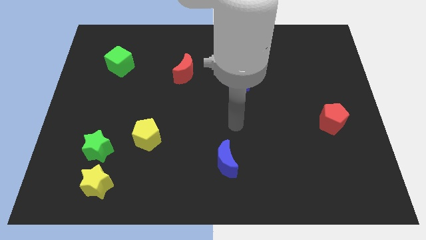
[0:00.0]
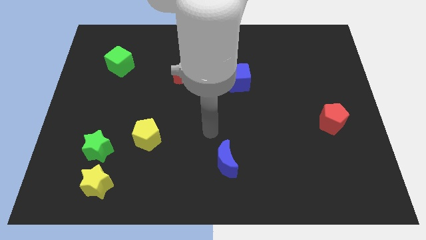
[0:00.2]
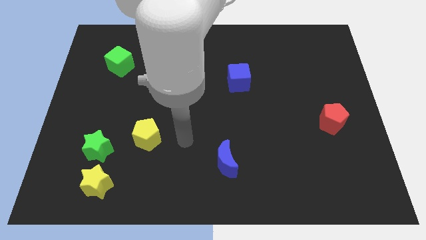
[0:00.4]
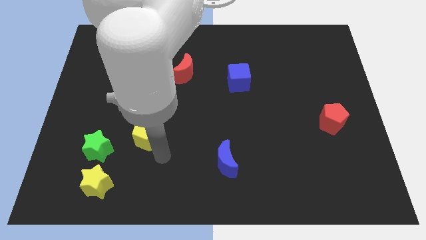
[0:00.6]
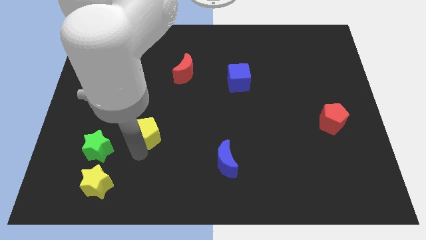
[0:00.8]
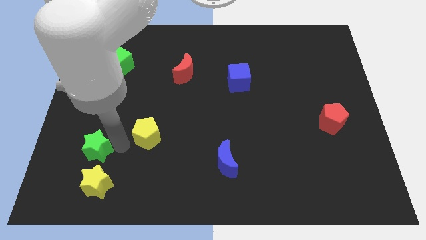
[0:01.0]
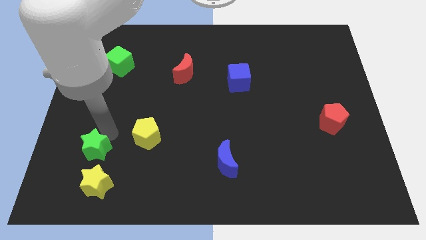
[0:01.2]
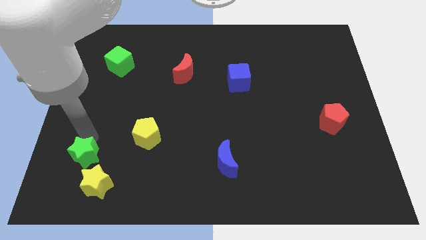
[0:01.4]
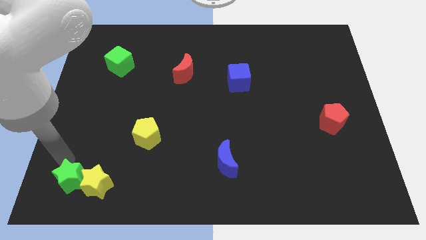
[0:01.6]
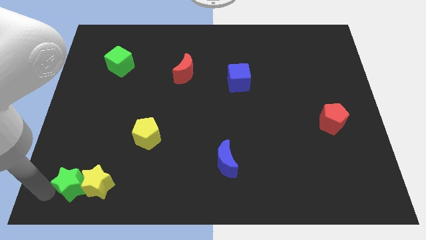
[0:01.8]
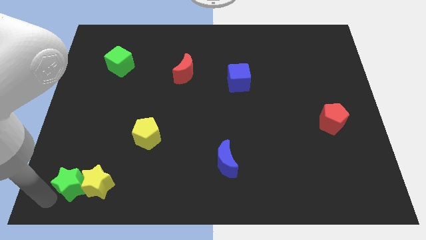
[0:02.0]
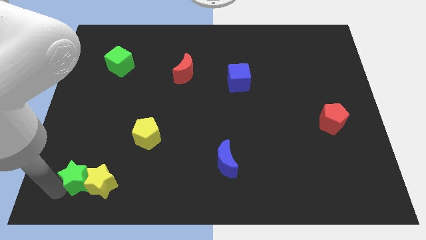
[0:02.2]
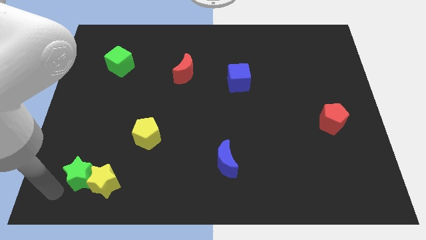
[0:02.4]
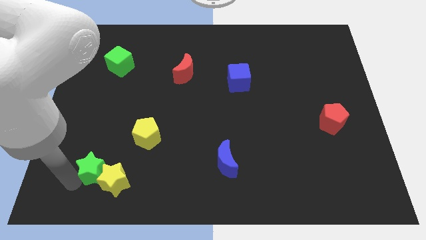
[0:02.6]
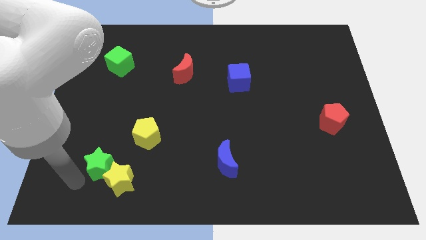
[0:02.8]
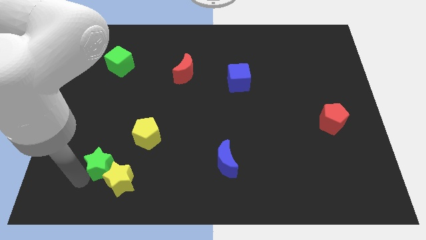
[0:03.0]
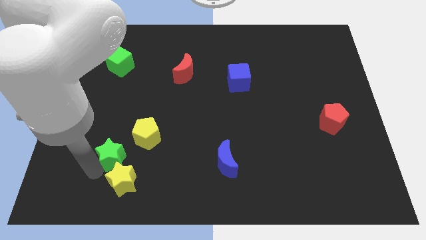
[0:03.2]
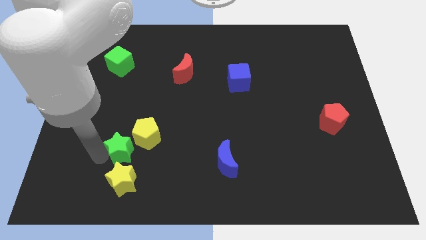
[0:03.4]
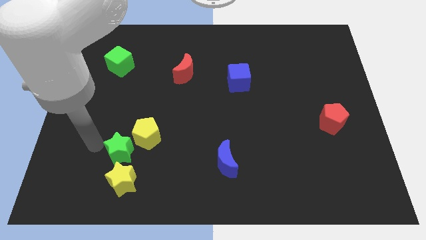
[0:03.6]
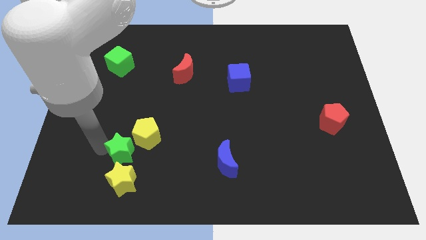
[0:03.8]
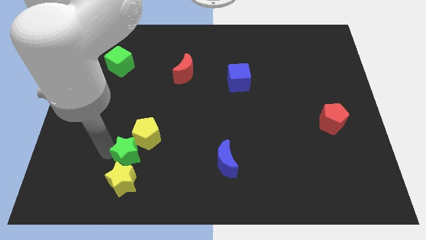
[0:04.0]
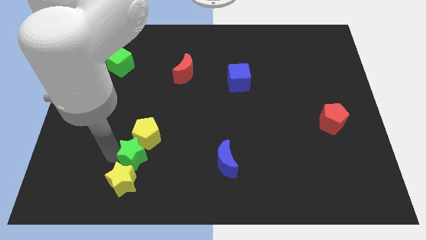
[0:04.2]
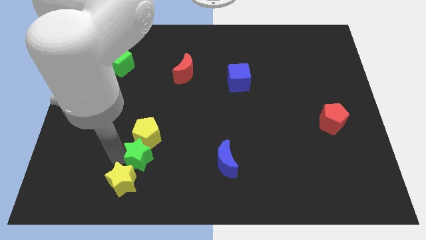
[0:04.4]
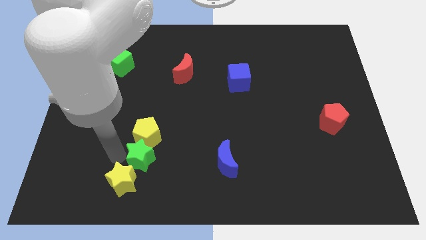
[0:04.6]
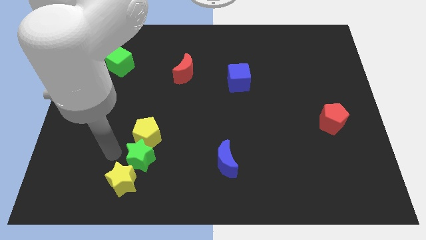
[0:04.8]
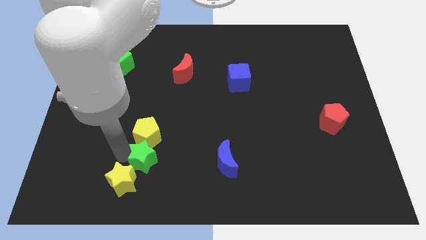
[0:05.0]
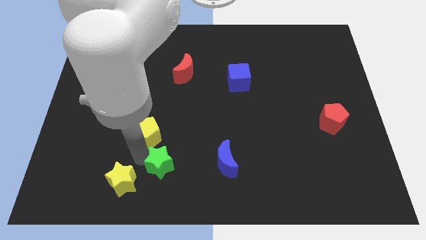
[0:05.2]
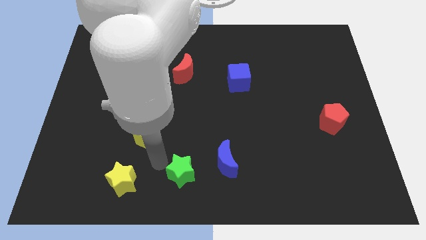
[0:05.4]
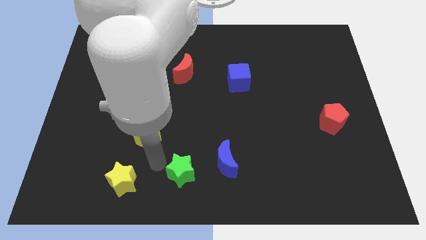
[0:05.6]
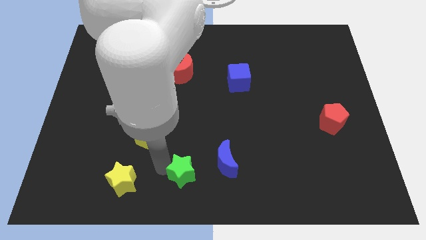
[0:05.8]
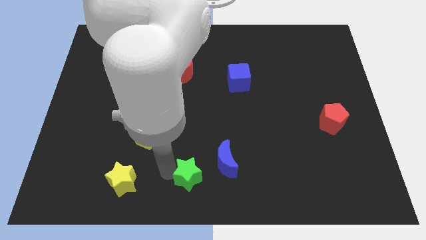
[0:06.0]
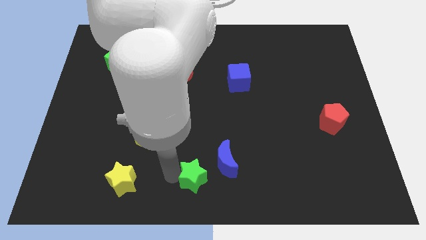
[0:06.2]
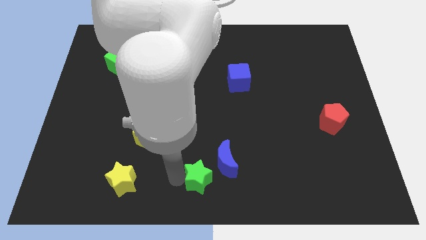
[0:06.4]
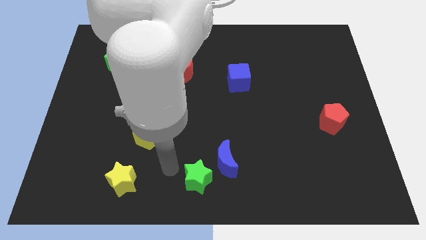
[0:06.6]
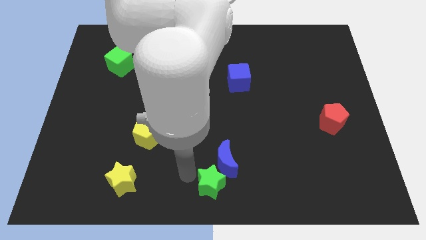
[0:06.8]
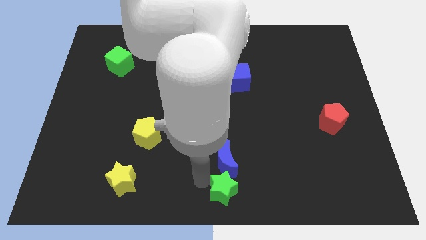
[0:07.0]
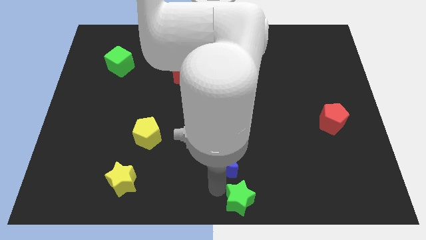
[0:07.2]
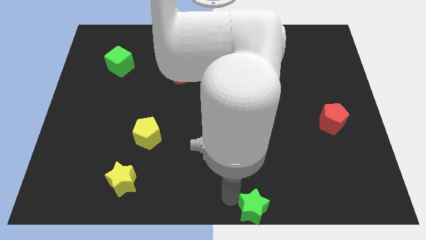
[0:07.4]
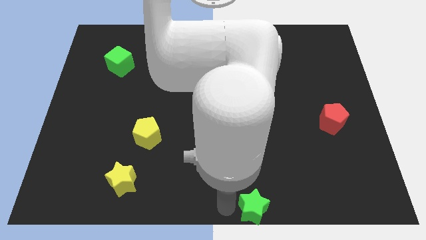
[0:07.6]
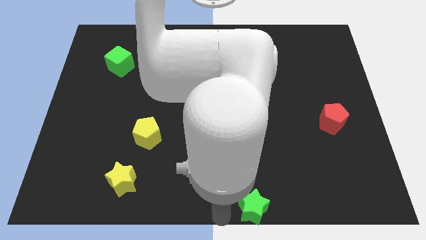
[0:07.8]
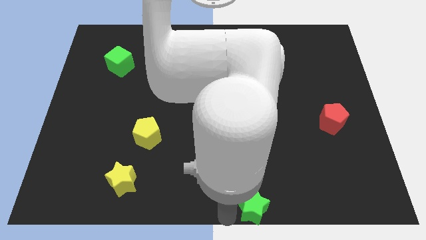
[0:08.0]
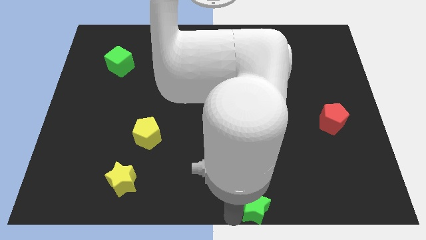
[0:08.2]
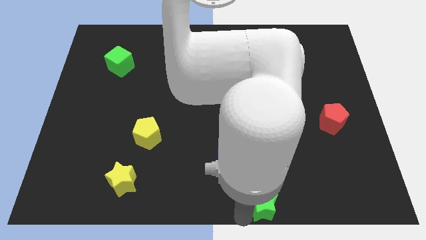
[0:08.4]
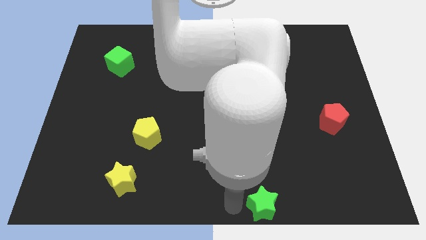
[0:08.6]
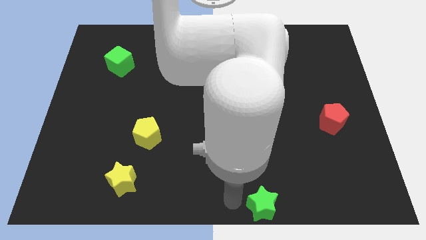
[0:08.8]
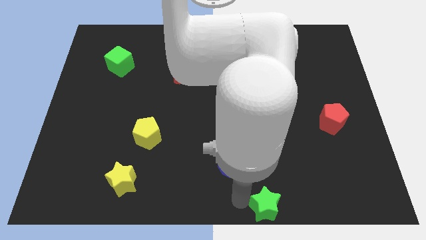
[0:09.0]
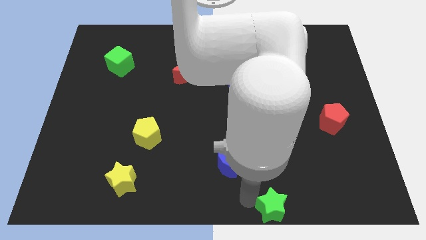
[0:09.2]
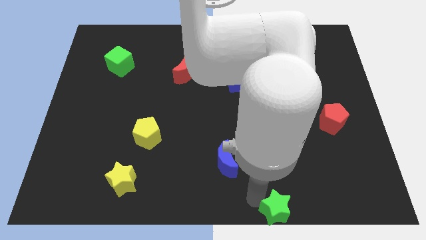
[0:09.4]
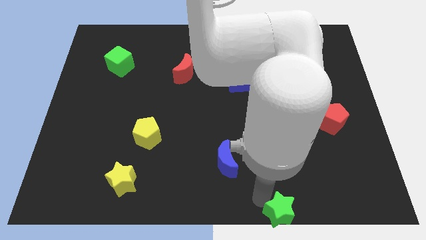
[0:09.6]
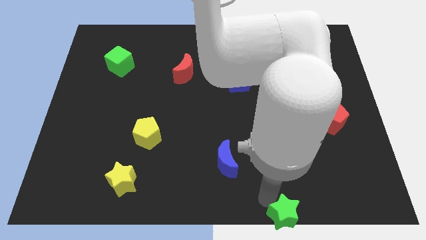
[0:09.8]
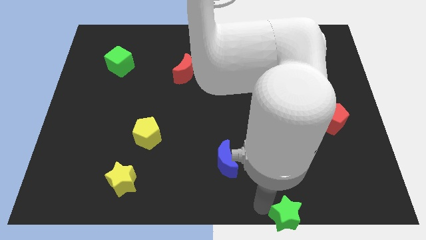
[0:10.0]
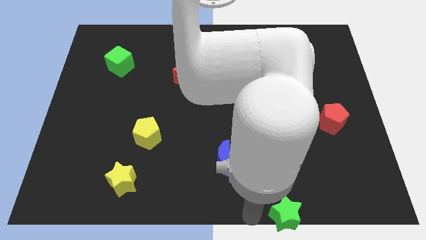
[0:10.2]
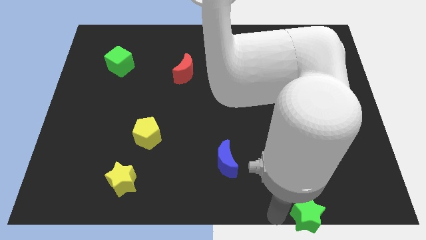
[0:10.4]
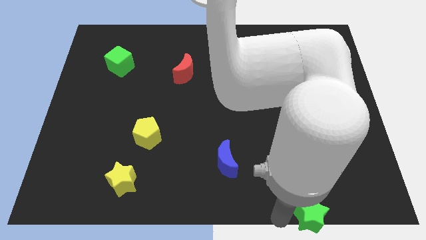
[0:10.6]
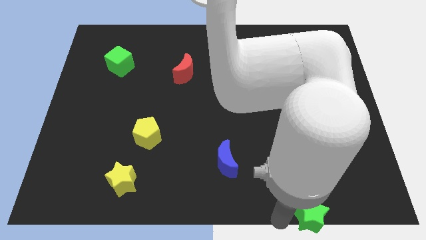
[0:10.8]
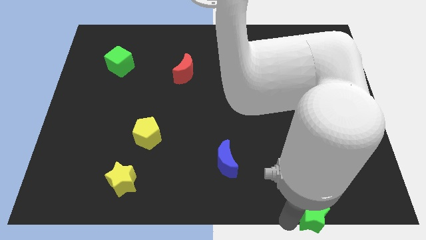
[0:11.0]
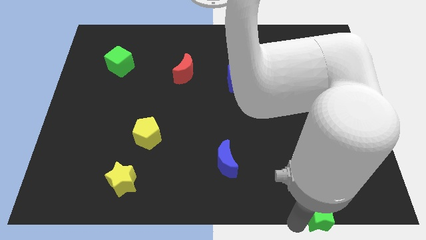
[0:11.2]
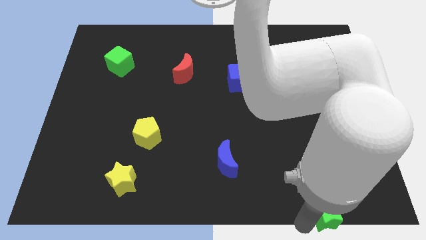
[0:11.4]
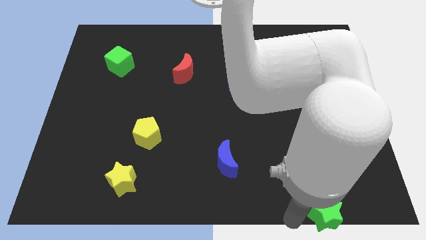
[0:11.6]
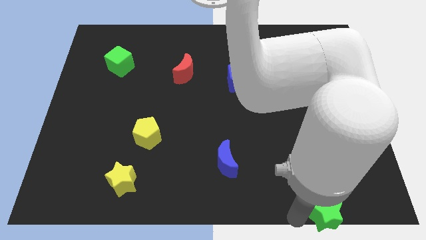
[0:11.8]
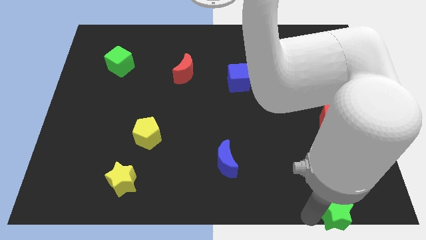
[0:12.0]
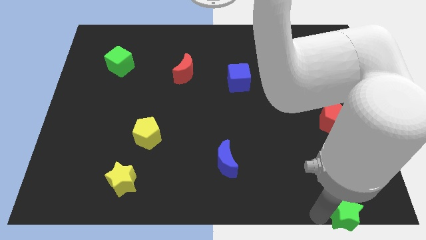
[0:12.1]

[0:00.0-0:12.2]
slide the green star to the bottom right corner
